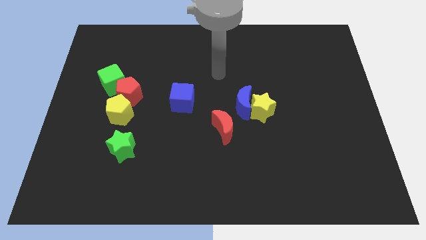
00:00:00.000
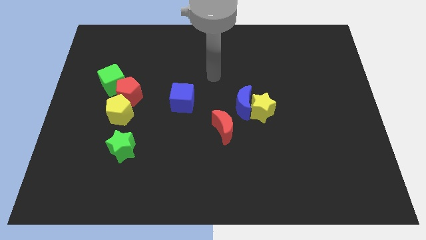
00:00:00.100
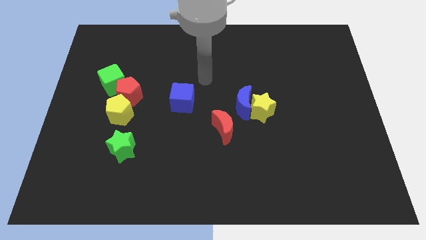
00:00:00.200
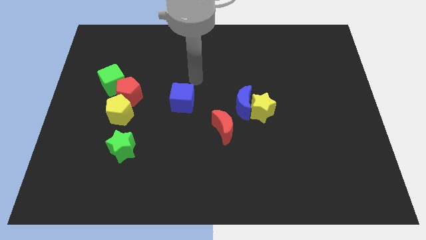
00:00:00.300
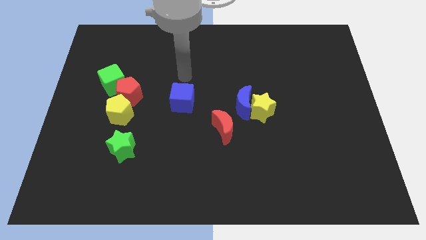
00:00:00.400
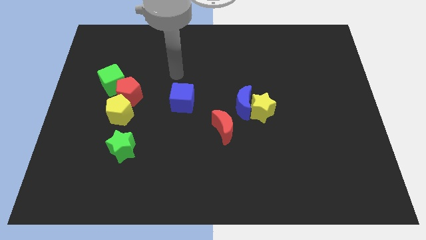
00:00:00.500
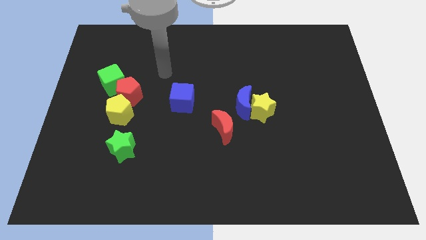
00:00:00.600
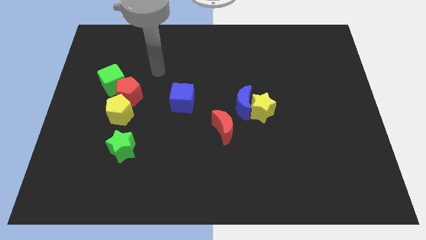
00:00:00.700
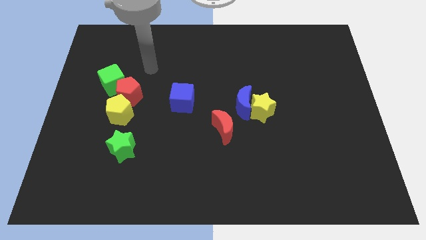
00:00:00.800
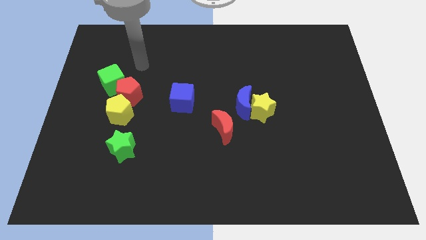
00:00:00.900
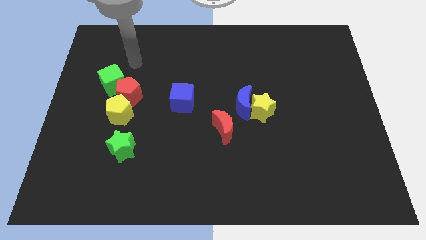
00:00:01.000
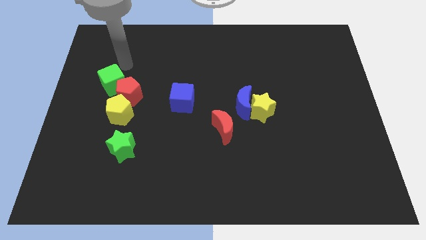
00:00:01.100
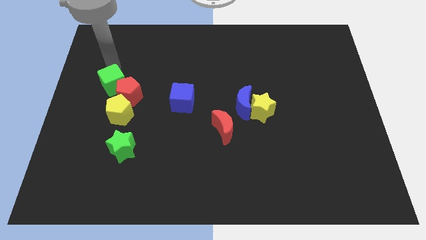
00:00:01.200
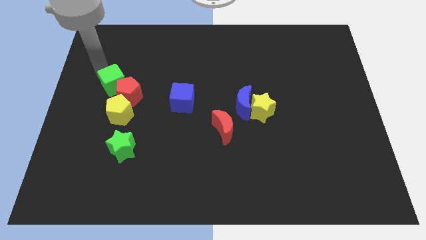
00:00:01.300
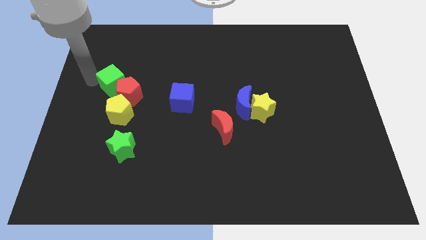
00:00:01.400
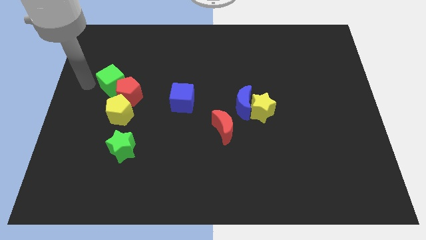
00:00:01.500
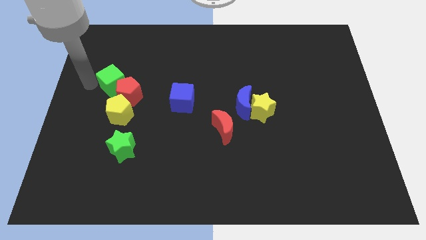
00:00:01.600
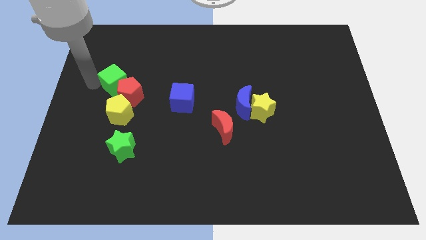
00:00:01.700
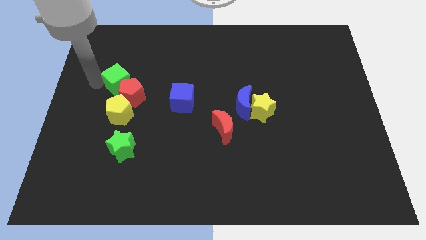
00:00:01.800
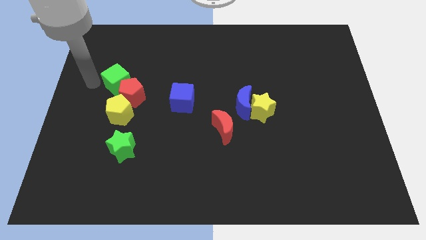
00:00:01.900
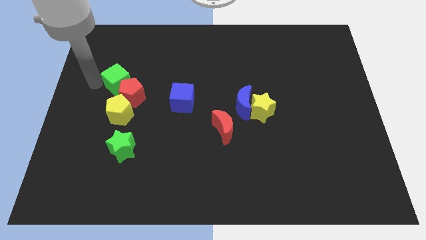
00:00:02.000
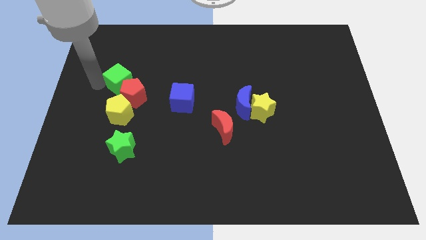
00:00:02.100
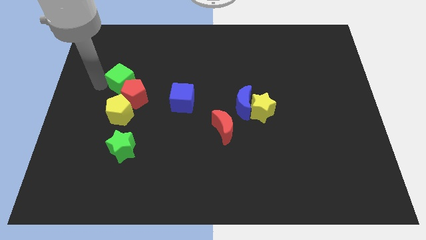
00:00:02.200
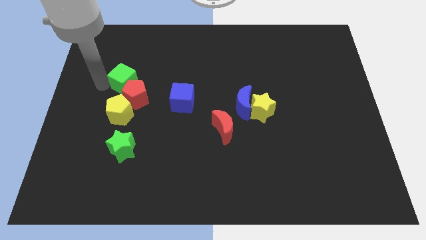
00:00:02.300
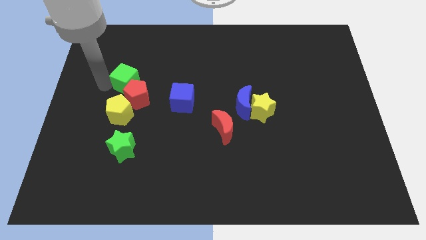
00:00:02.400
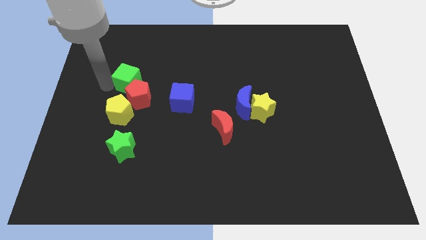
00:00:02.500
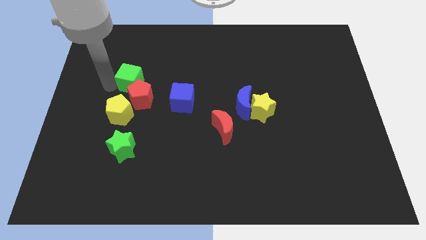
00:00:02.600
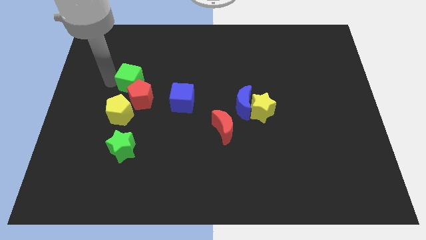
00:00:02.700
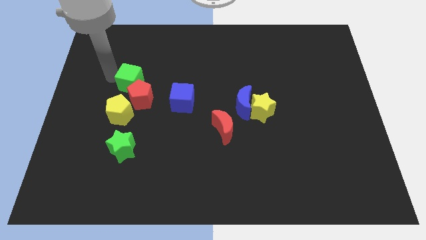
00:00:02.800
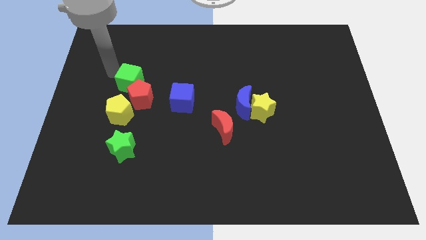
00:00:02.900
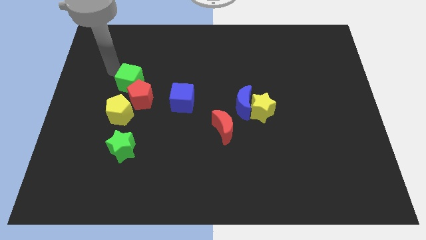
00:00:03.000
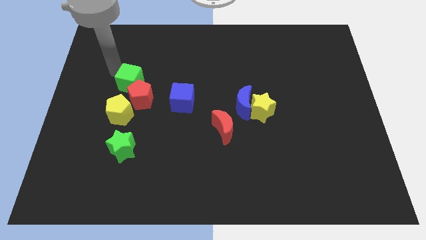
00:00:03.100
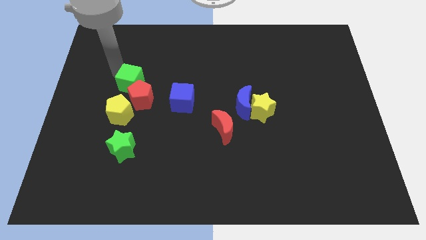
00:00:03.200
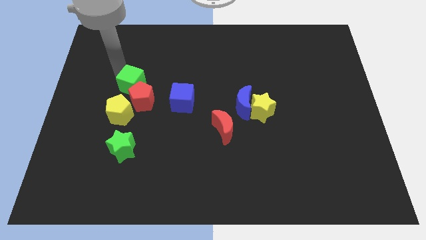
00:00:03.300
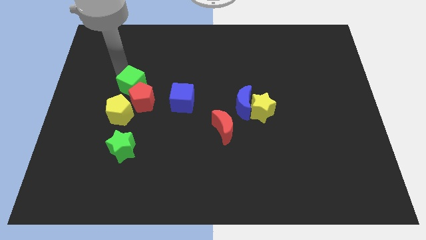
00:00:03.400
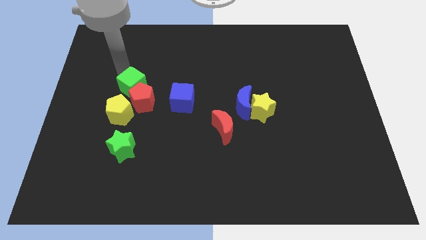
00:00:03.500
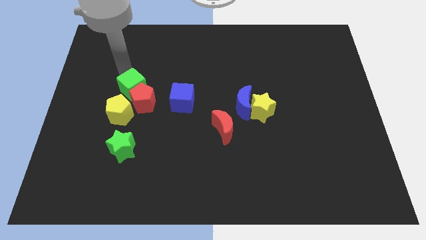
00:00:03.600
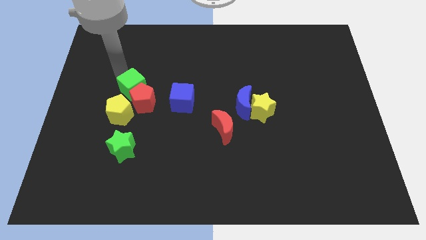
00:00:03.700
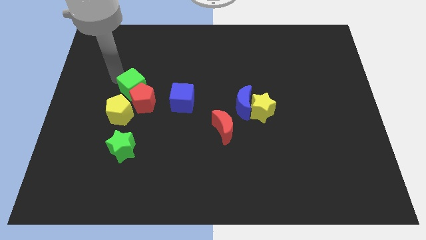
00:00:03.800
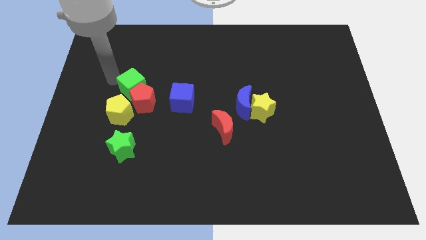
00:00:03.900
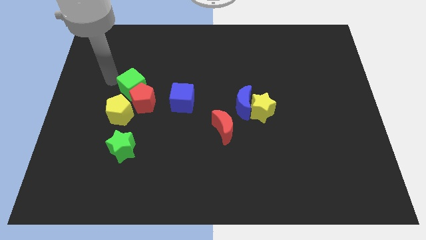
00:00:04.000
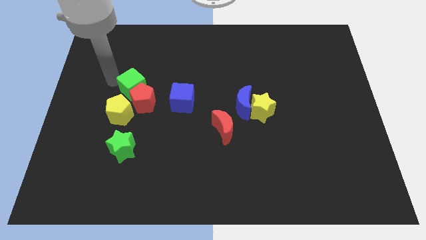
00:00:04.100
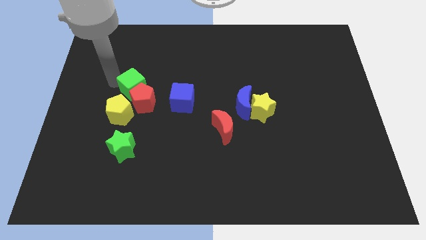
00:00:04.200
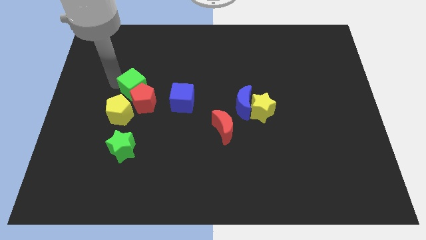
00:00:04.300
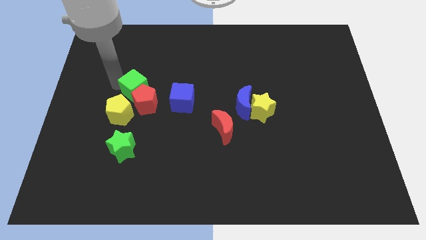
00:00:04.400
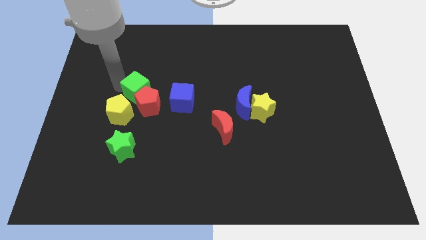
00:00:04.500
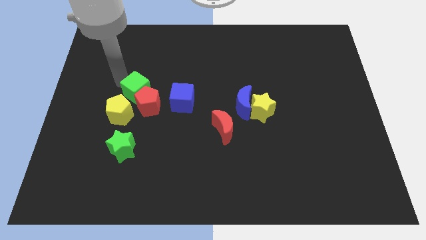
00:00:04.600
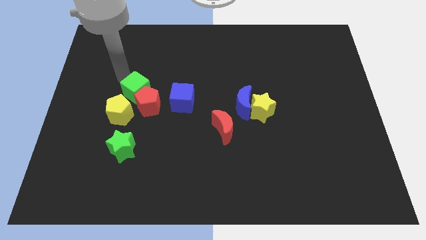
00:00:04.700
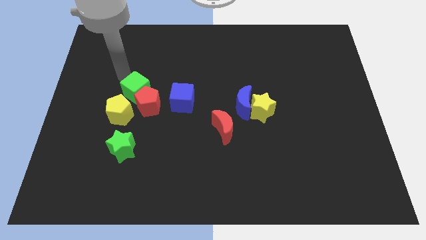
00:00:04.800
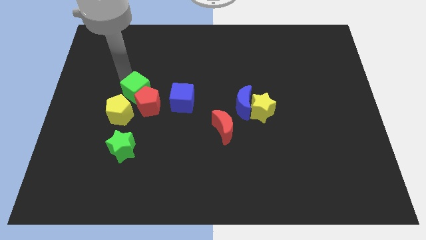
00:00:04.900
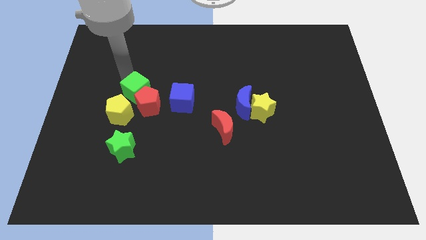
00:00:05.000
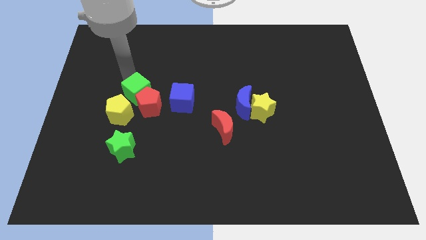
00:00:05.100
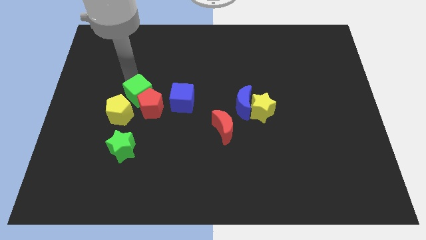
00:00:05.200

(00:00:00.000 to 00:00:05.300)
move the green cube a bit downwards and then right

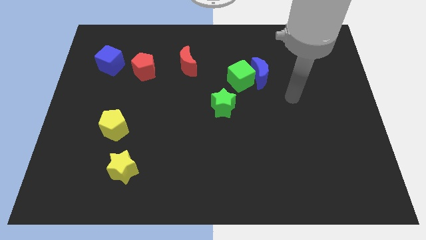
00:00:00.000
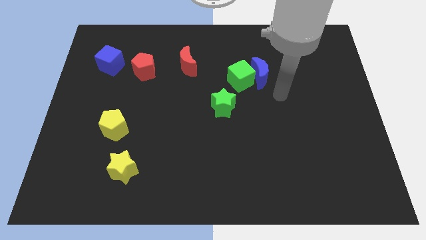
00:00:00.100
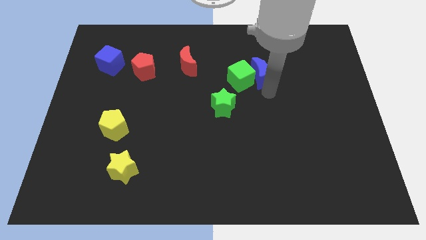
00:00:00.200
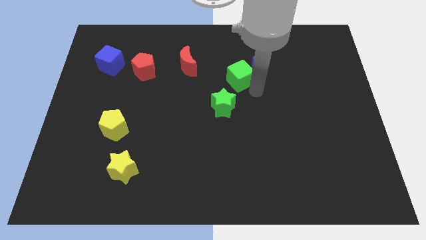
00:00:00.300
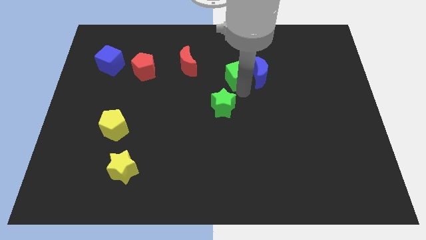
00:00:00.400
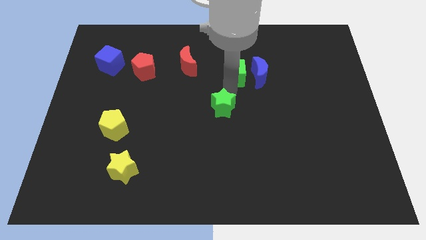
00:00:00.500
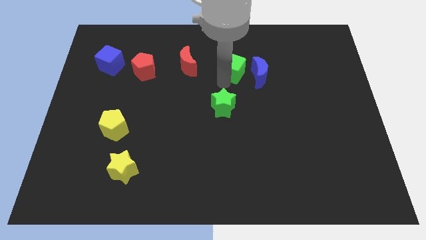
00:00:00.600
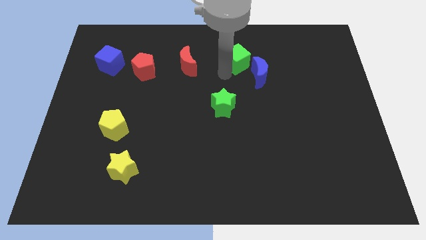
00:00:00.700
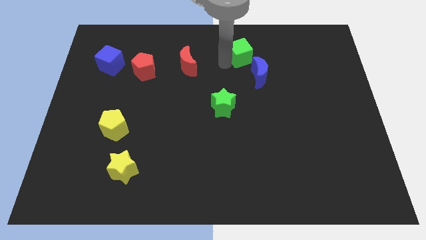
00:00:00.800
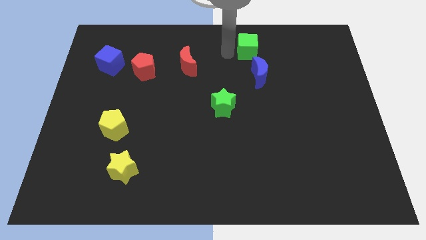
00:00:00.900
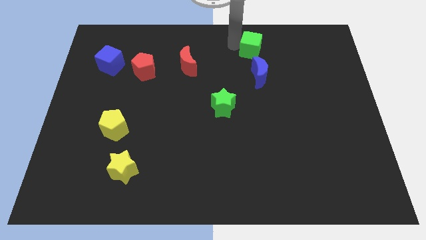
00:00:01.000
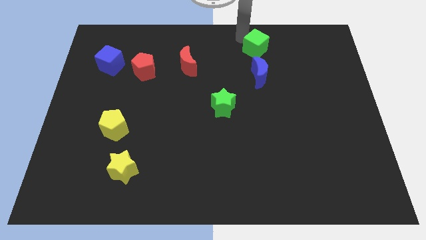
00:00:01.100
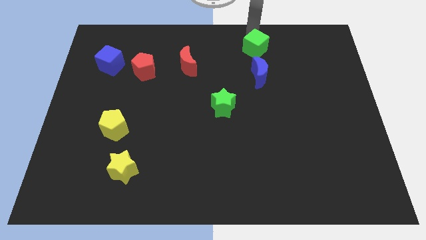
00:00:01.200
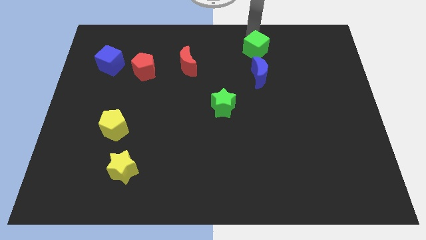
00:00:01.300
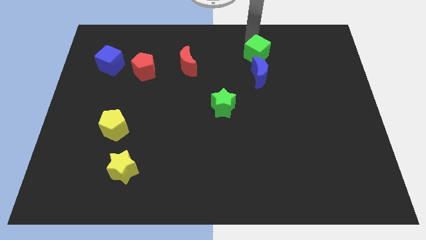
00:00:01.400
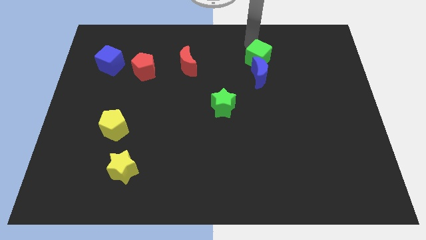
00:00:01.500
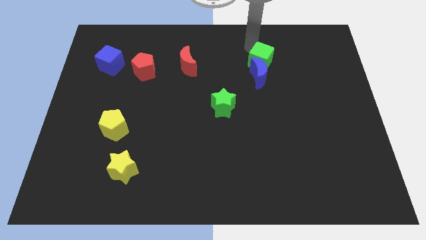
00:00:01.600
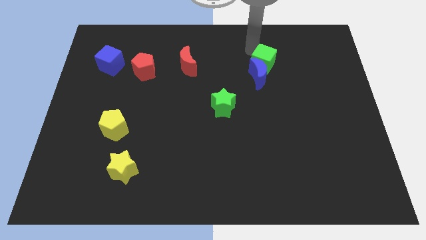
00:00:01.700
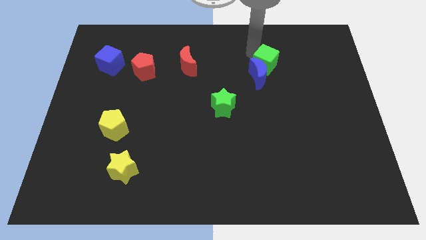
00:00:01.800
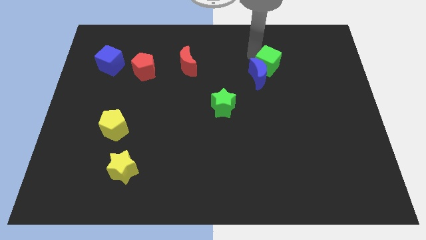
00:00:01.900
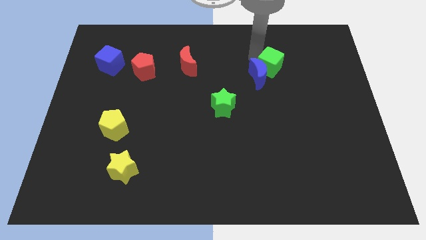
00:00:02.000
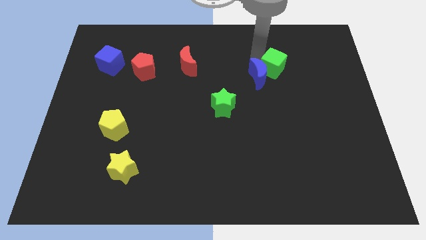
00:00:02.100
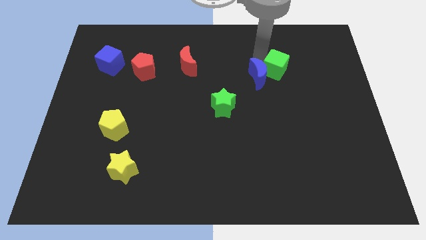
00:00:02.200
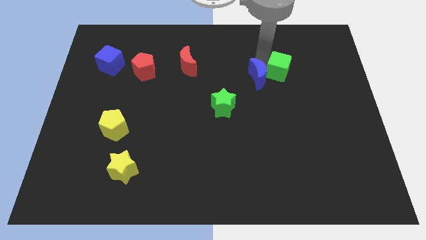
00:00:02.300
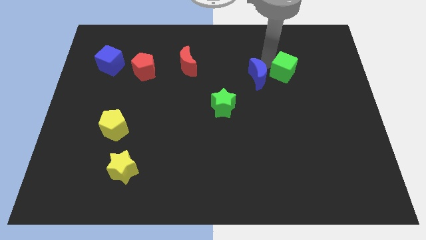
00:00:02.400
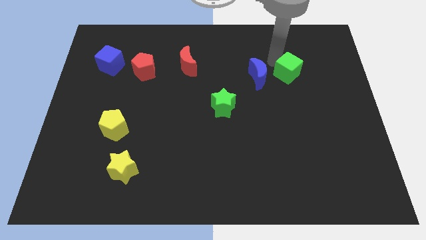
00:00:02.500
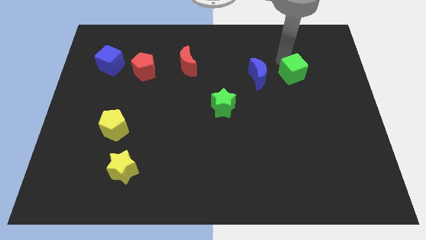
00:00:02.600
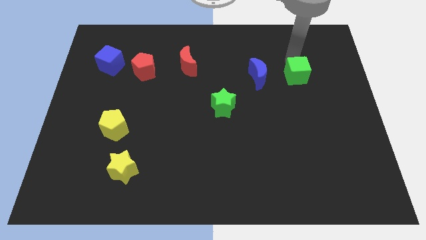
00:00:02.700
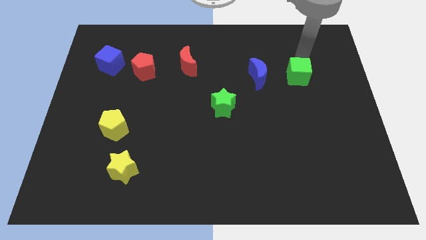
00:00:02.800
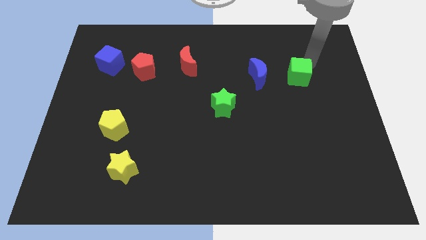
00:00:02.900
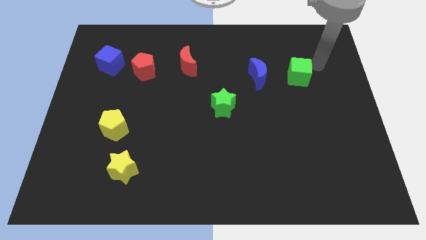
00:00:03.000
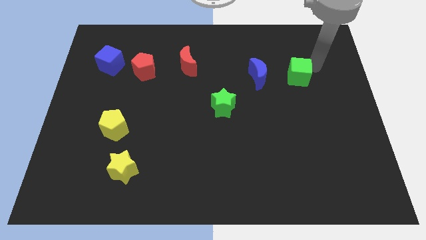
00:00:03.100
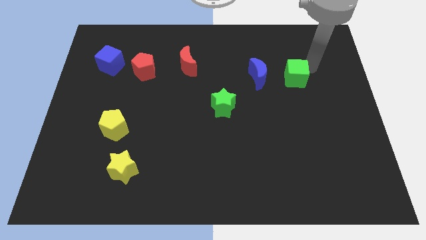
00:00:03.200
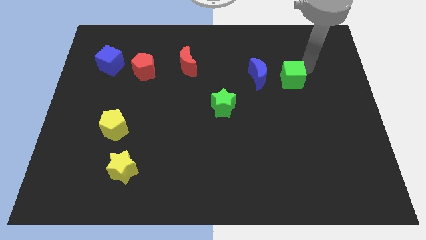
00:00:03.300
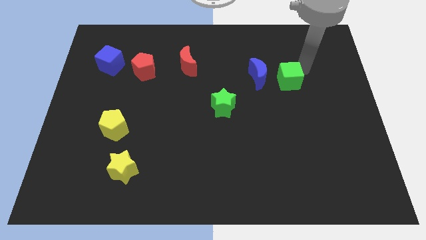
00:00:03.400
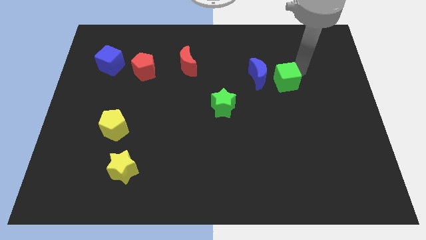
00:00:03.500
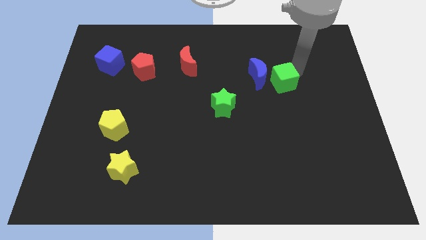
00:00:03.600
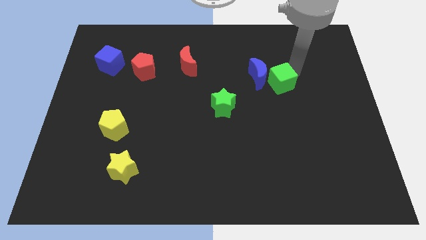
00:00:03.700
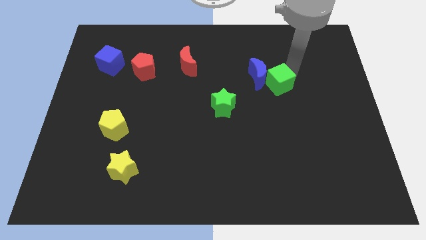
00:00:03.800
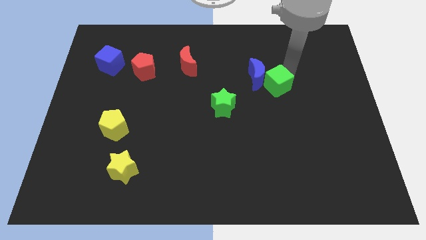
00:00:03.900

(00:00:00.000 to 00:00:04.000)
slide the green cube somewhat down and then to the right
